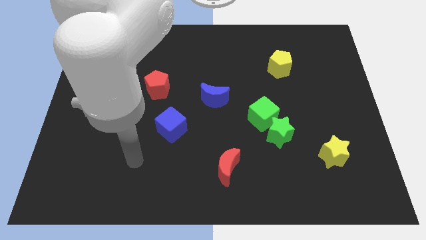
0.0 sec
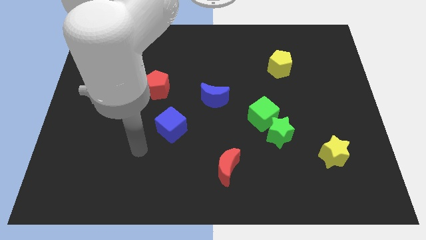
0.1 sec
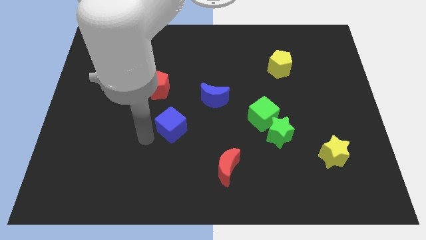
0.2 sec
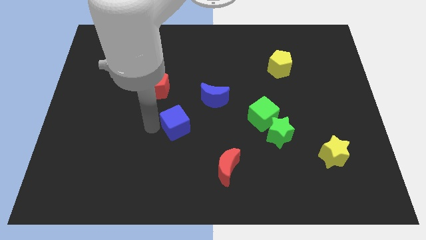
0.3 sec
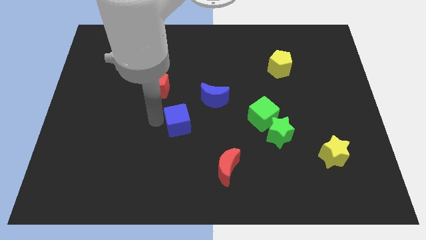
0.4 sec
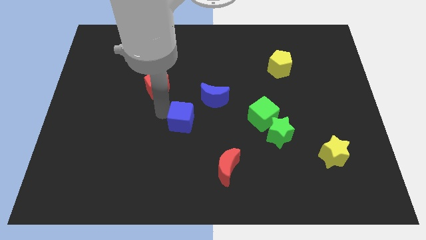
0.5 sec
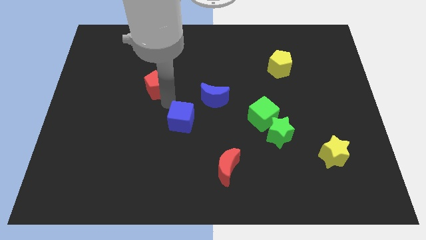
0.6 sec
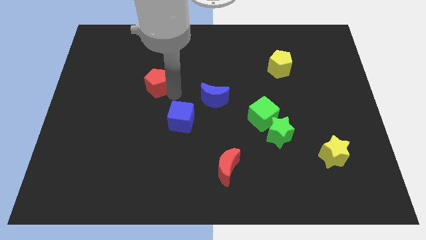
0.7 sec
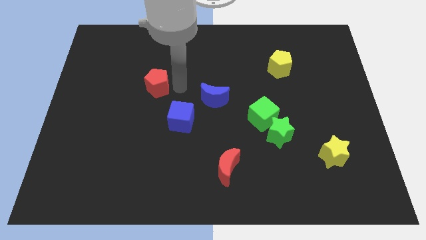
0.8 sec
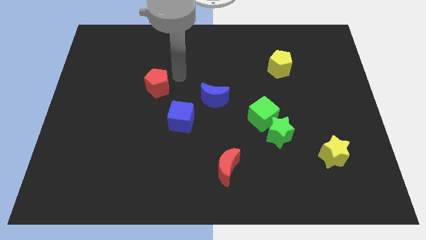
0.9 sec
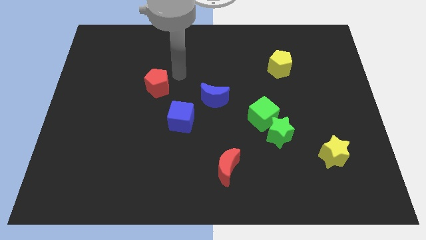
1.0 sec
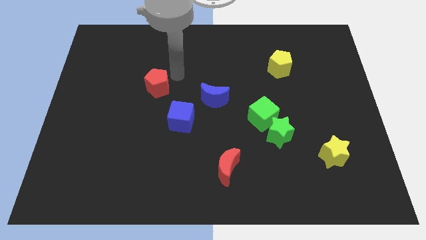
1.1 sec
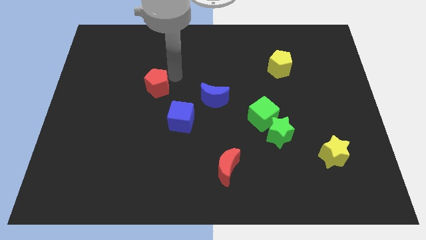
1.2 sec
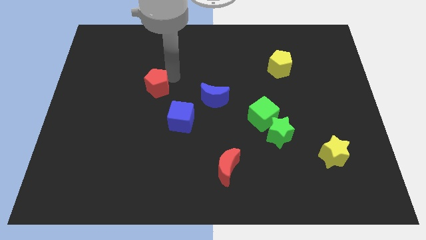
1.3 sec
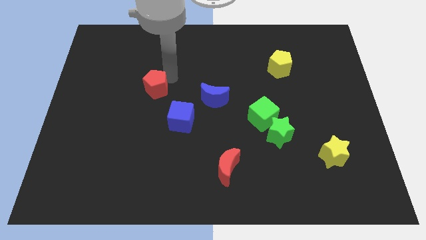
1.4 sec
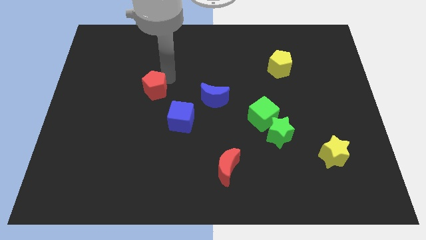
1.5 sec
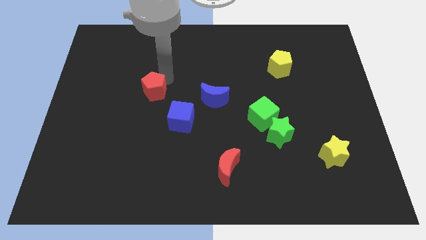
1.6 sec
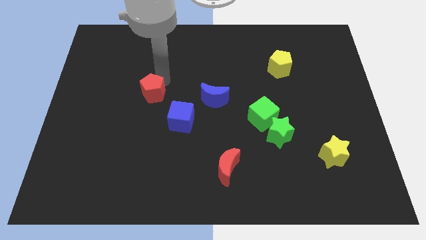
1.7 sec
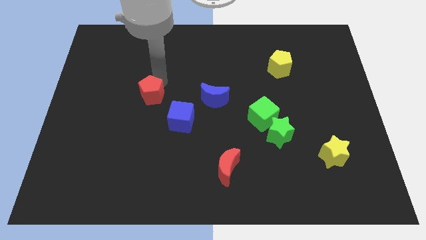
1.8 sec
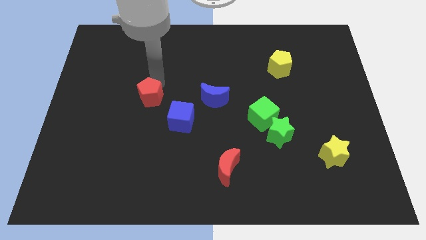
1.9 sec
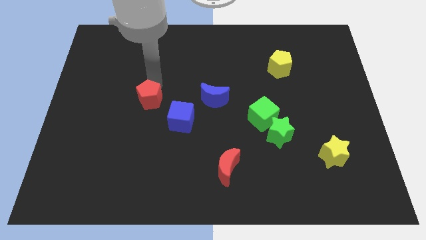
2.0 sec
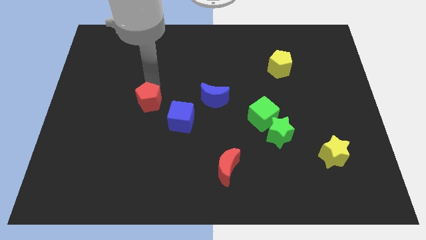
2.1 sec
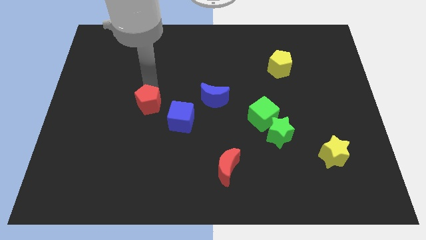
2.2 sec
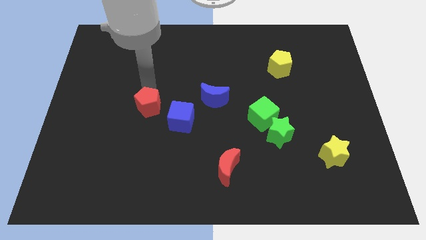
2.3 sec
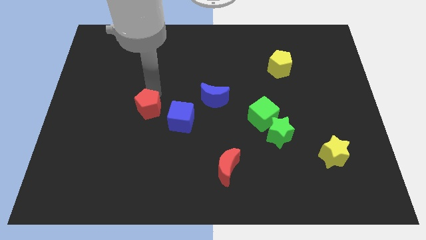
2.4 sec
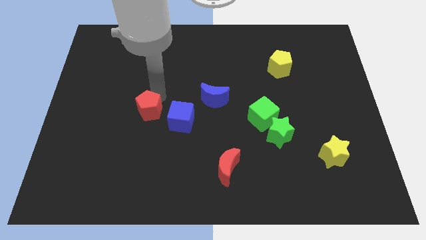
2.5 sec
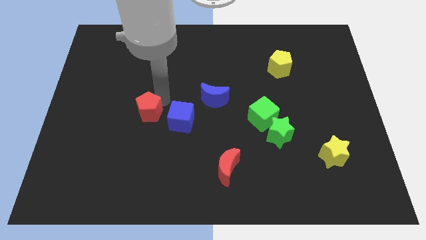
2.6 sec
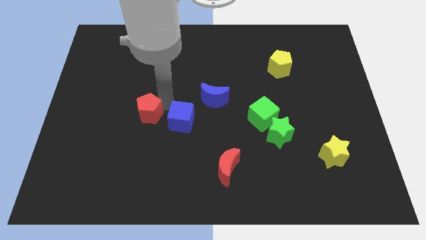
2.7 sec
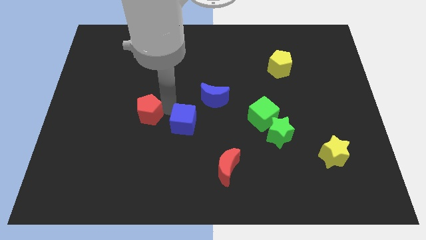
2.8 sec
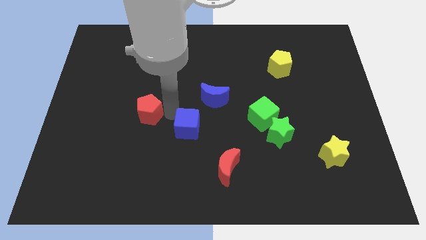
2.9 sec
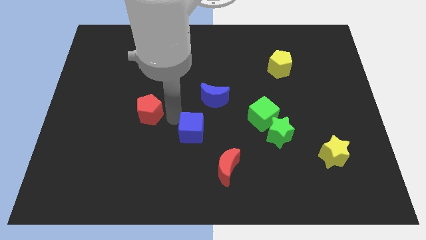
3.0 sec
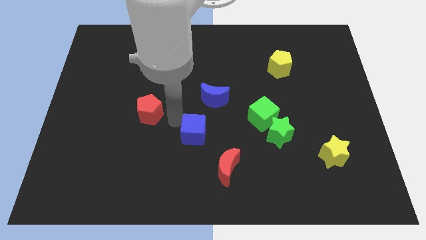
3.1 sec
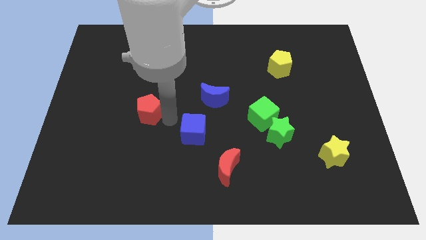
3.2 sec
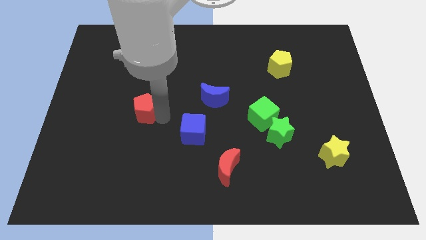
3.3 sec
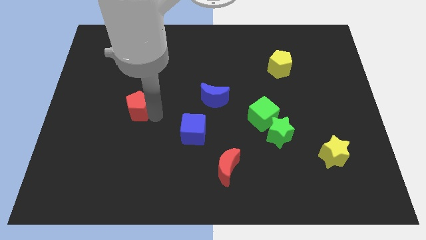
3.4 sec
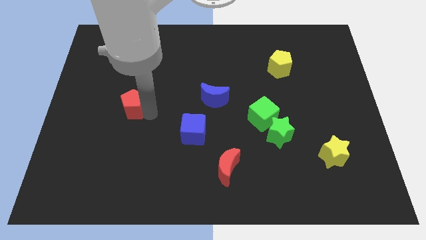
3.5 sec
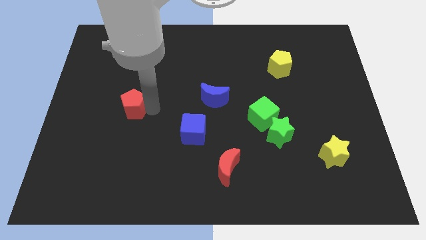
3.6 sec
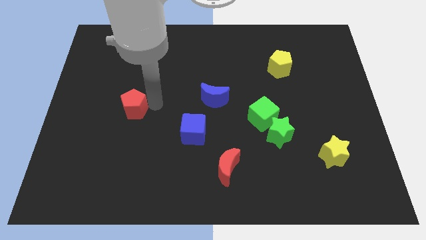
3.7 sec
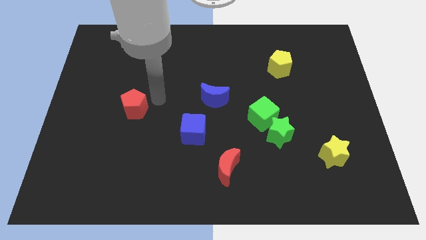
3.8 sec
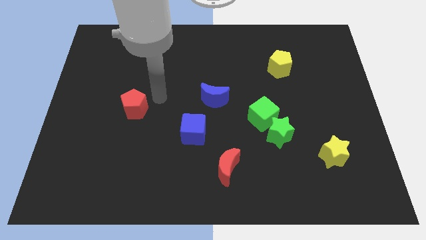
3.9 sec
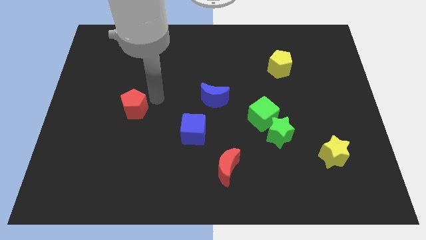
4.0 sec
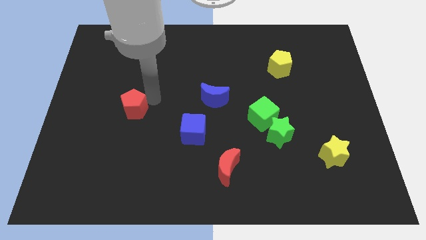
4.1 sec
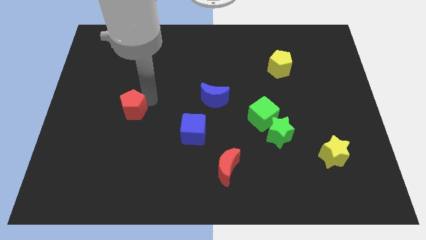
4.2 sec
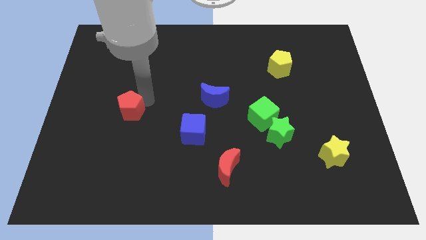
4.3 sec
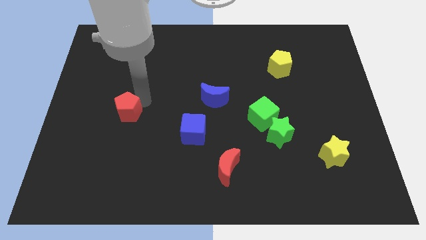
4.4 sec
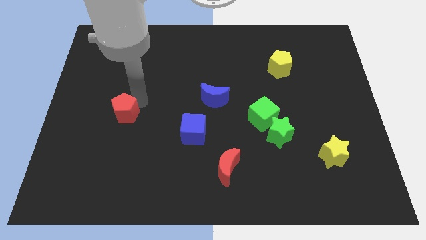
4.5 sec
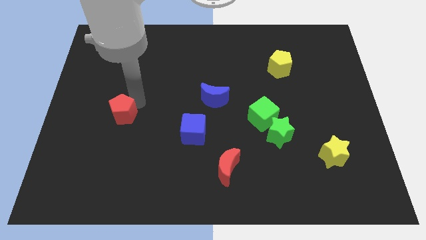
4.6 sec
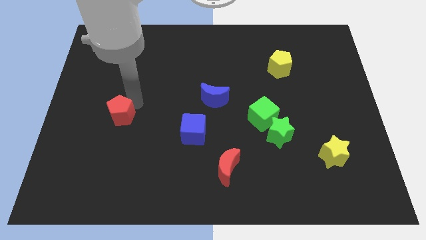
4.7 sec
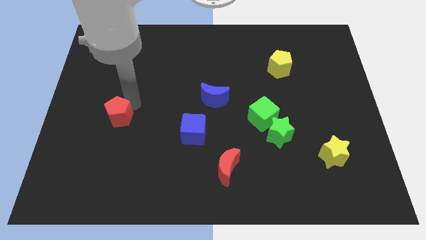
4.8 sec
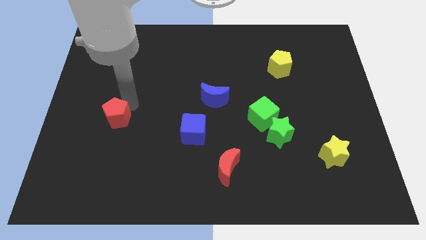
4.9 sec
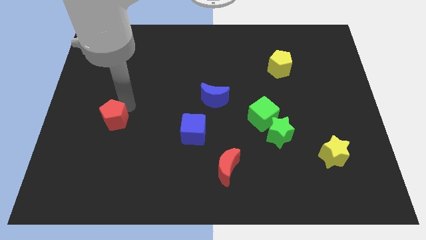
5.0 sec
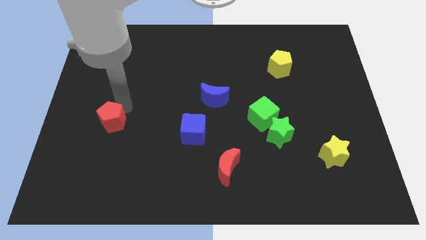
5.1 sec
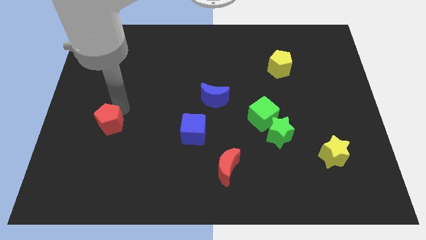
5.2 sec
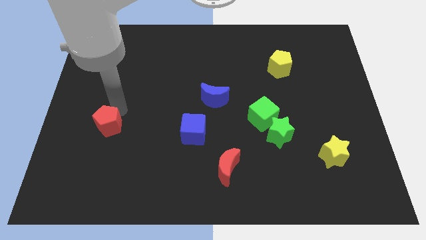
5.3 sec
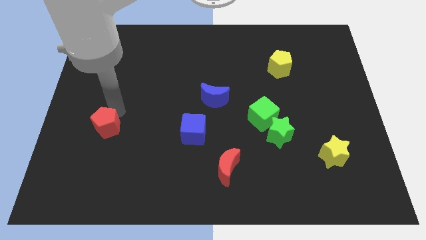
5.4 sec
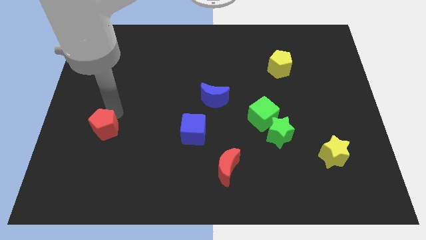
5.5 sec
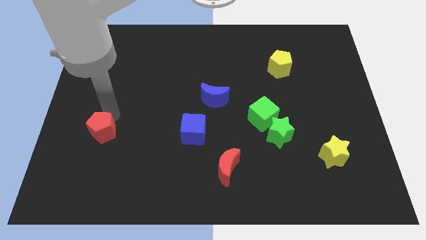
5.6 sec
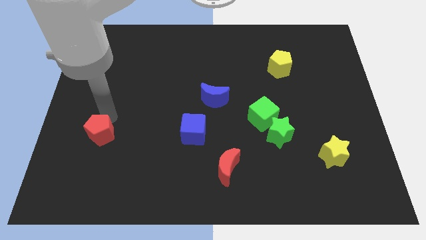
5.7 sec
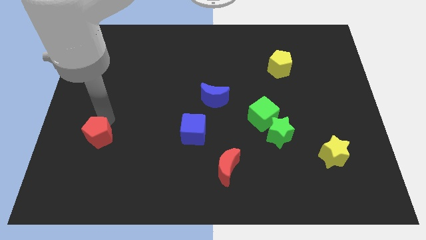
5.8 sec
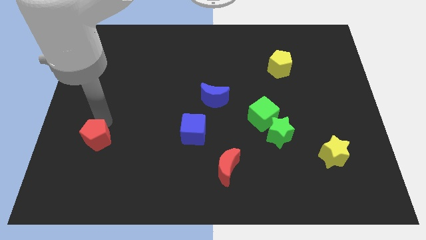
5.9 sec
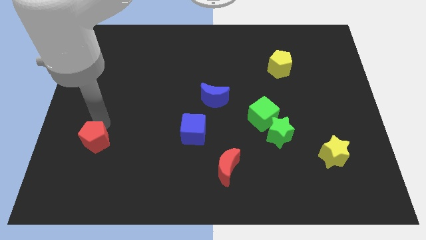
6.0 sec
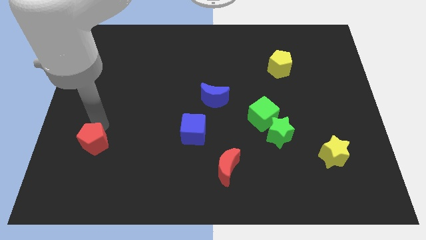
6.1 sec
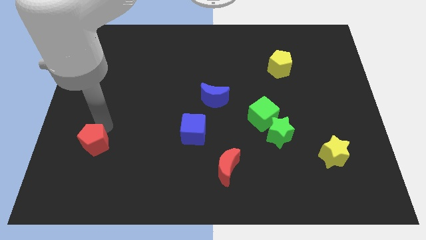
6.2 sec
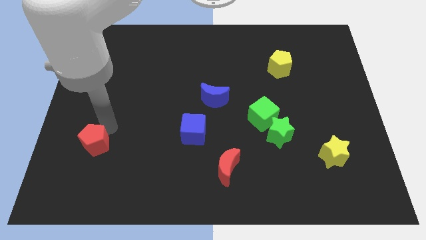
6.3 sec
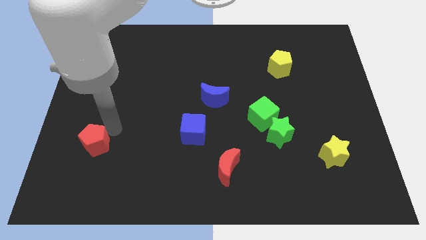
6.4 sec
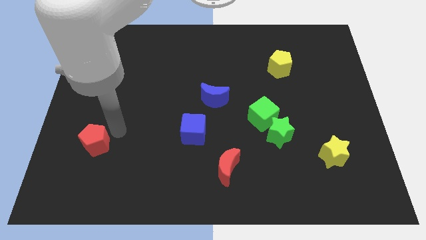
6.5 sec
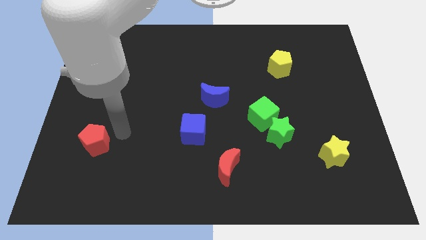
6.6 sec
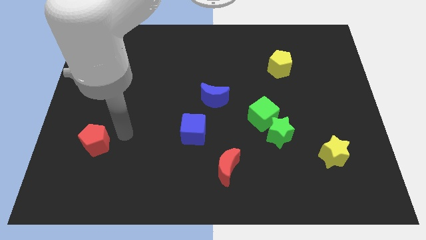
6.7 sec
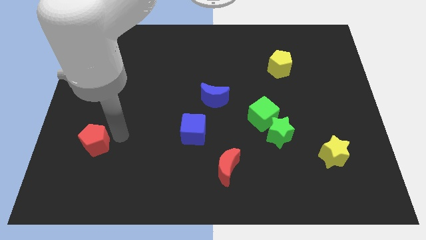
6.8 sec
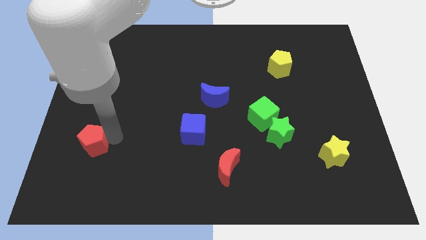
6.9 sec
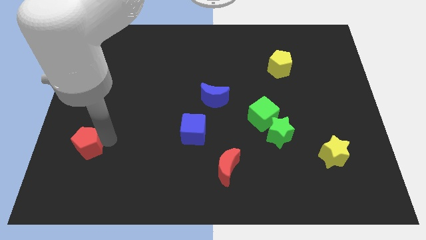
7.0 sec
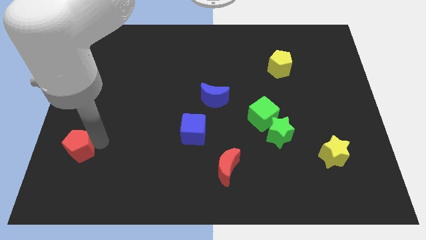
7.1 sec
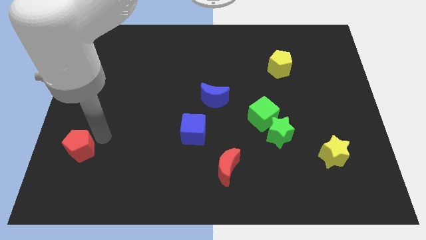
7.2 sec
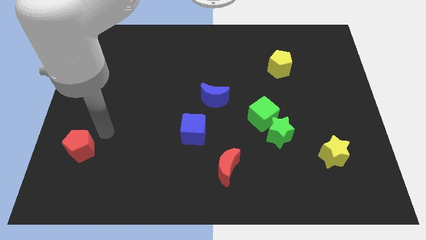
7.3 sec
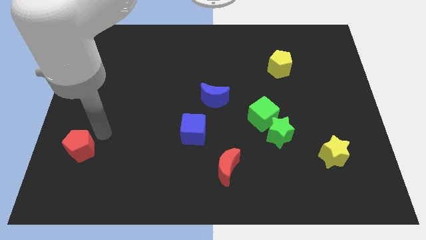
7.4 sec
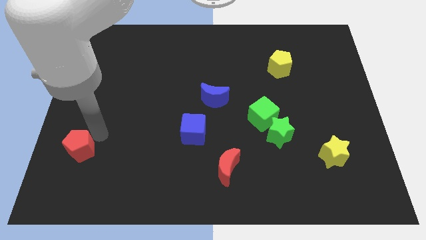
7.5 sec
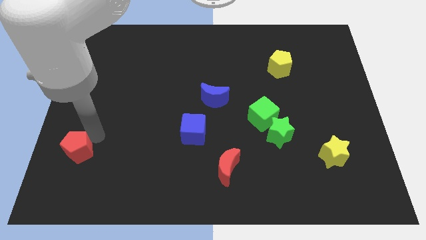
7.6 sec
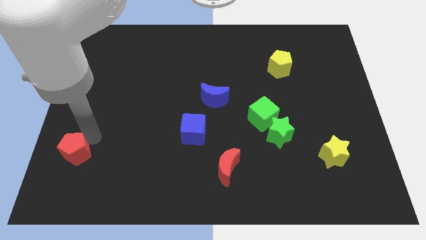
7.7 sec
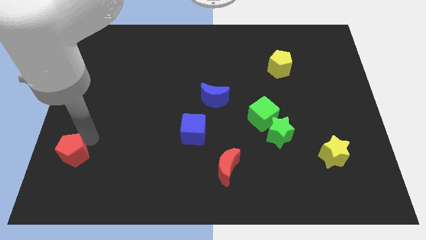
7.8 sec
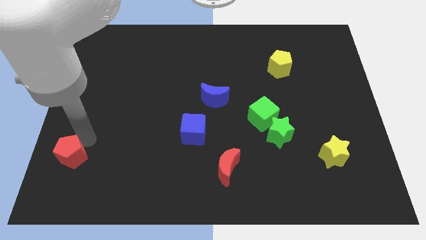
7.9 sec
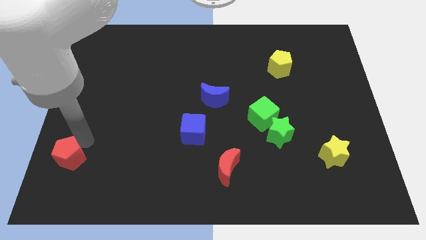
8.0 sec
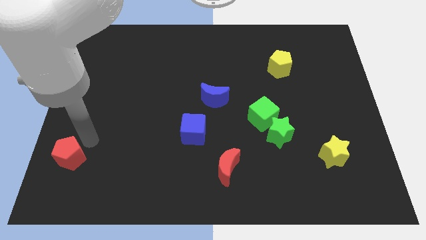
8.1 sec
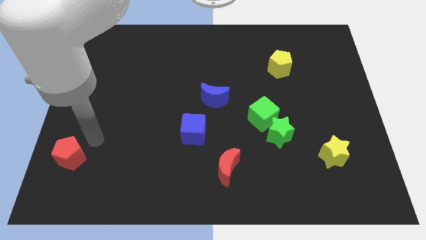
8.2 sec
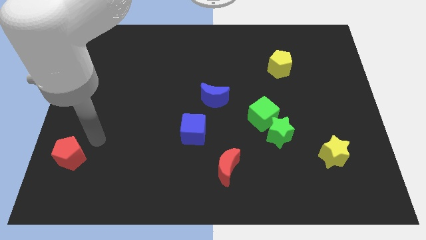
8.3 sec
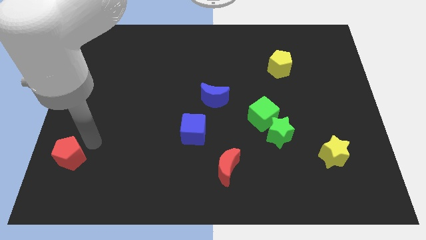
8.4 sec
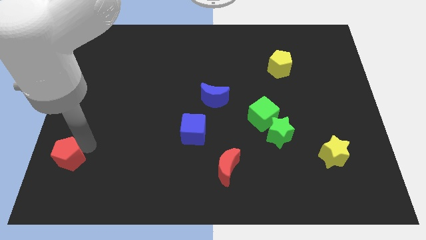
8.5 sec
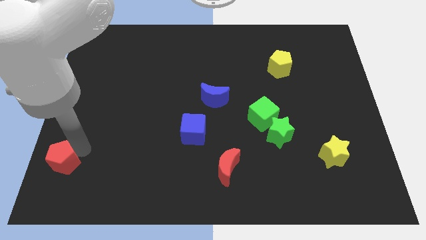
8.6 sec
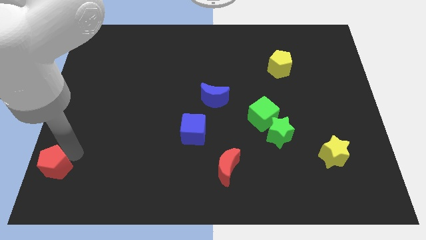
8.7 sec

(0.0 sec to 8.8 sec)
move the red pentagon to the lower left corner
